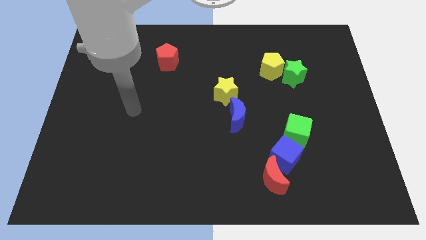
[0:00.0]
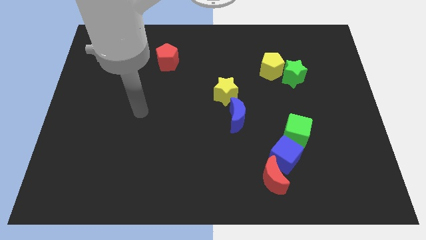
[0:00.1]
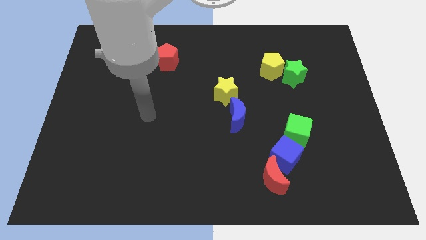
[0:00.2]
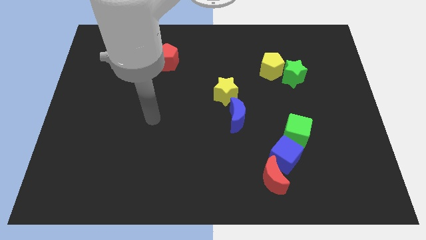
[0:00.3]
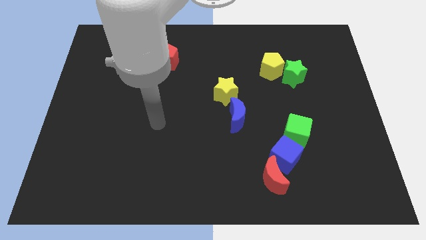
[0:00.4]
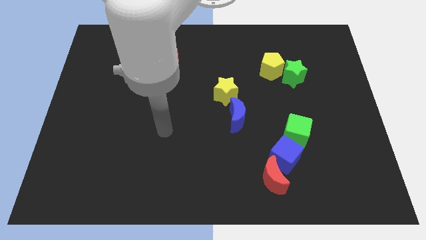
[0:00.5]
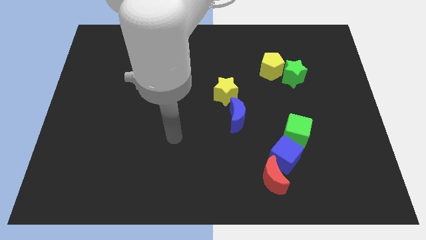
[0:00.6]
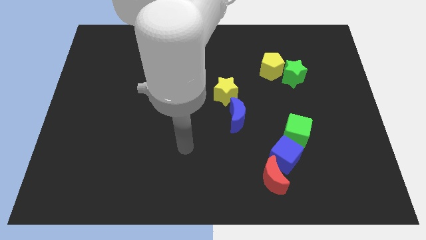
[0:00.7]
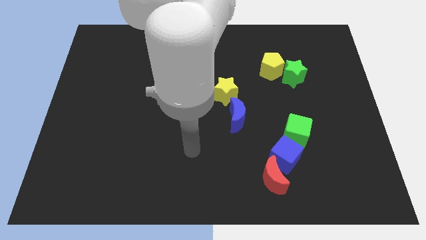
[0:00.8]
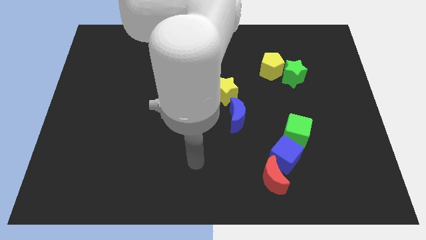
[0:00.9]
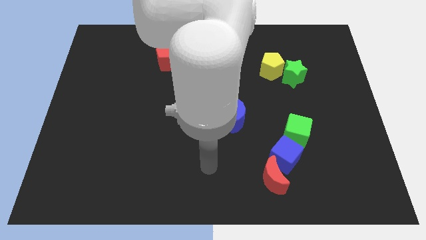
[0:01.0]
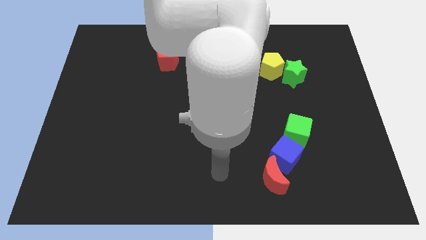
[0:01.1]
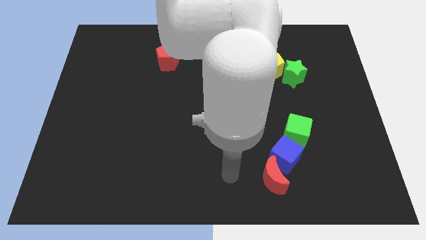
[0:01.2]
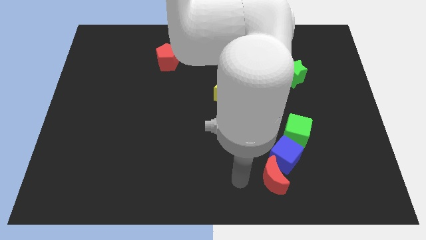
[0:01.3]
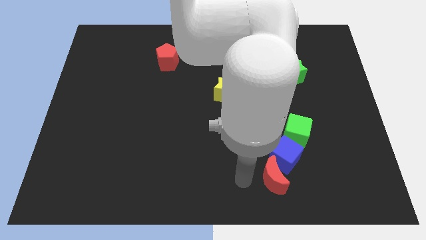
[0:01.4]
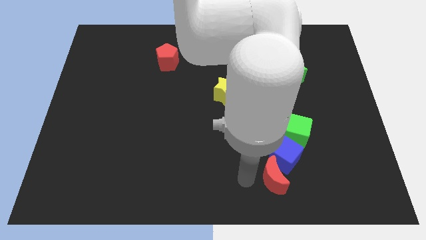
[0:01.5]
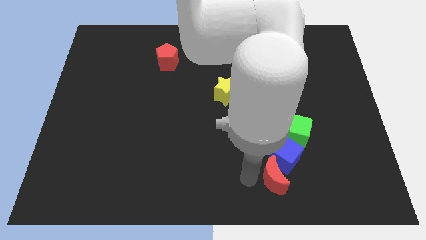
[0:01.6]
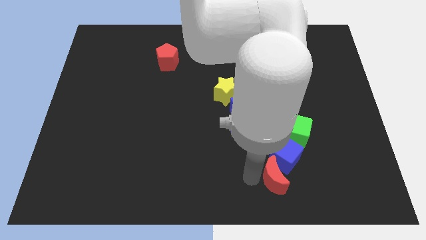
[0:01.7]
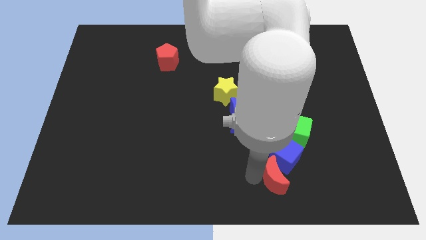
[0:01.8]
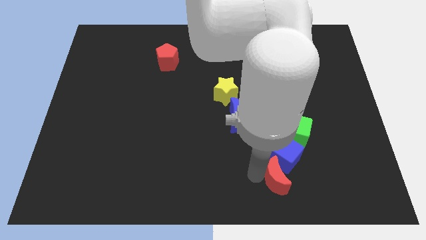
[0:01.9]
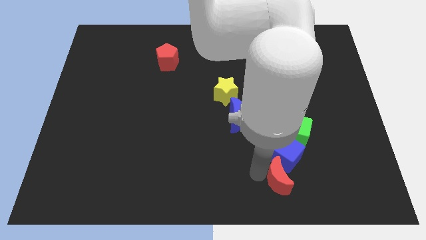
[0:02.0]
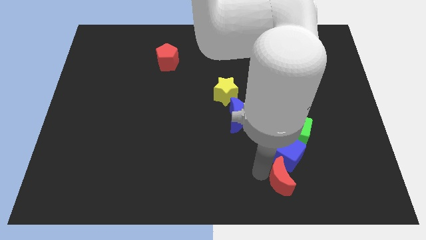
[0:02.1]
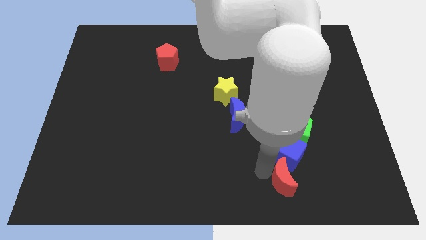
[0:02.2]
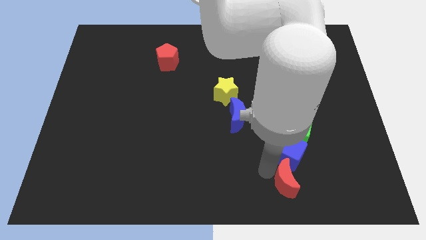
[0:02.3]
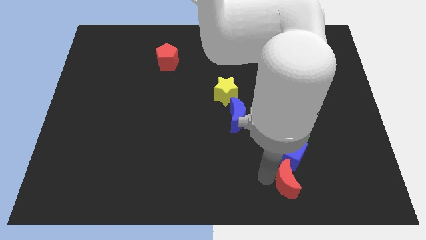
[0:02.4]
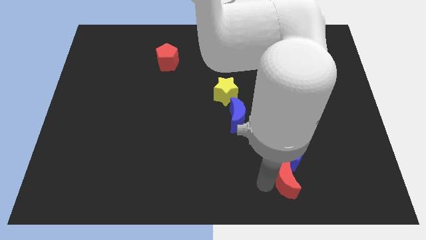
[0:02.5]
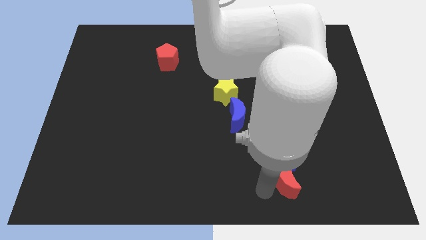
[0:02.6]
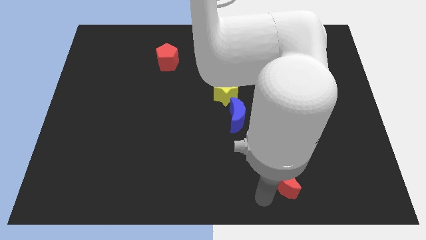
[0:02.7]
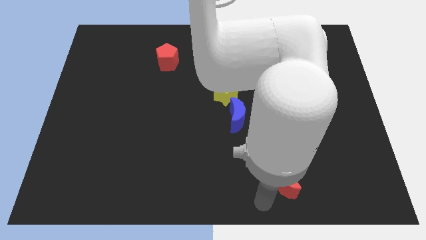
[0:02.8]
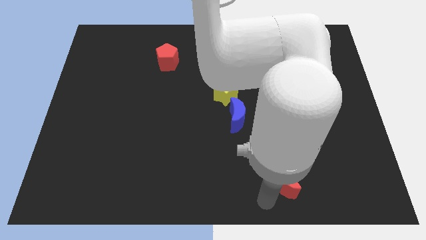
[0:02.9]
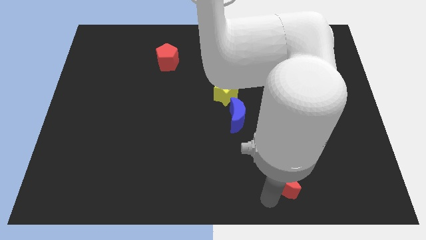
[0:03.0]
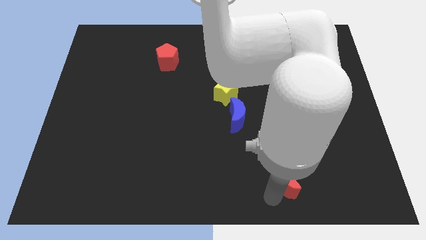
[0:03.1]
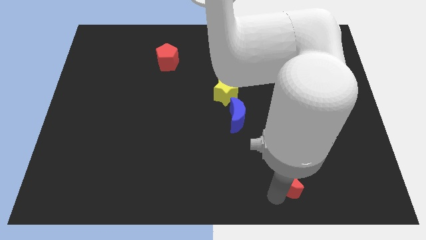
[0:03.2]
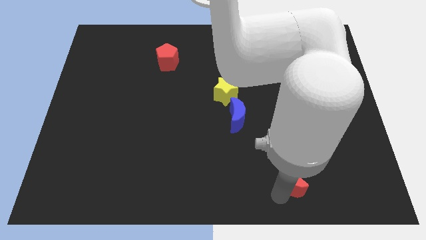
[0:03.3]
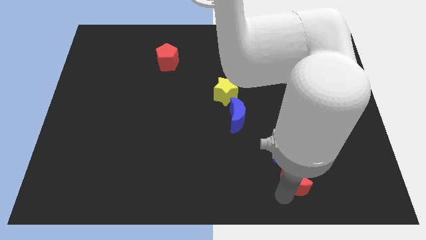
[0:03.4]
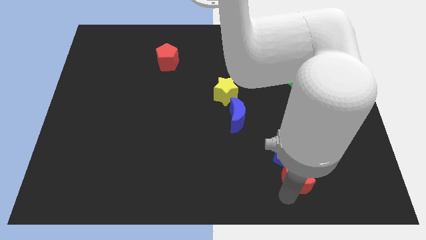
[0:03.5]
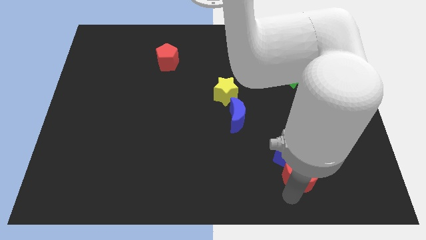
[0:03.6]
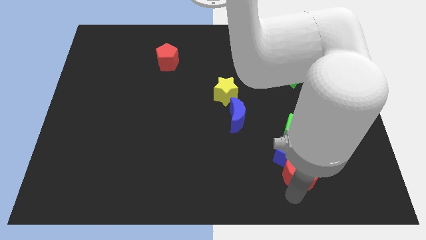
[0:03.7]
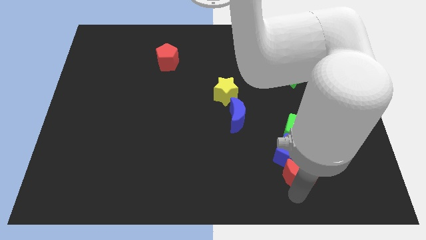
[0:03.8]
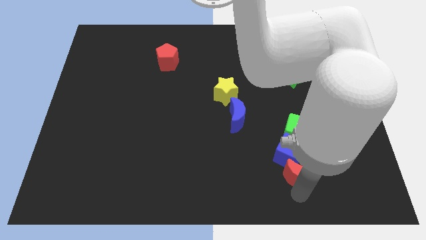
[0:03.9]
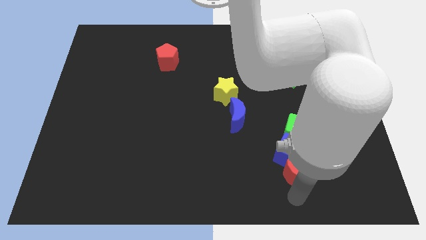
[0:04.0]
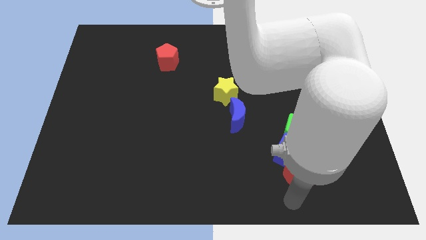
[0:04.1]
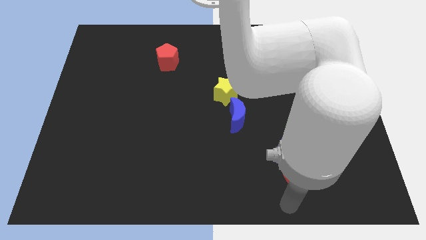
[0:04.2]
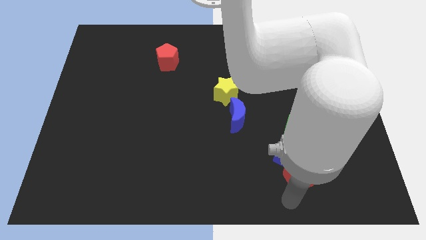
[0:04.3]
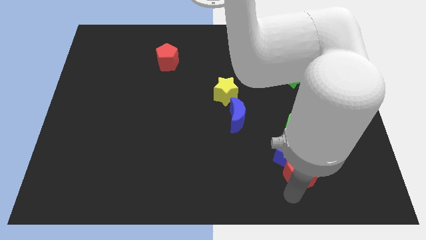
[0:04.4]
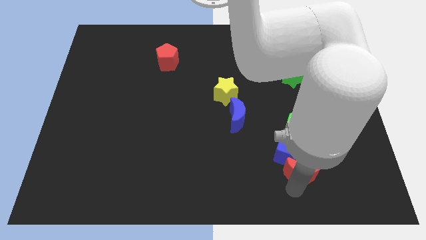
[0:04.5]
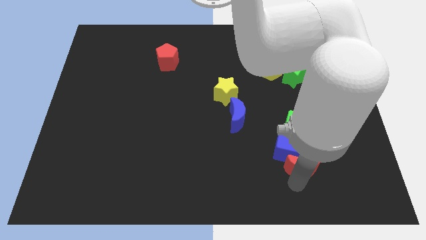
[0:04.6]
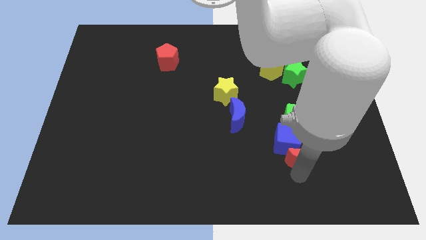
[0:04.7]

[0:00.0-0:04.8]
push the red moon a little bit upwards and to the right diagonally

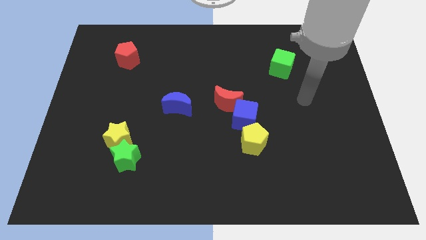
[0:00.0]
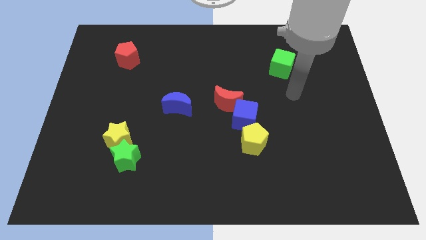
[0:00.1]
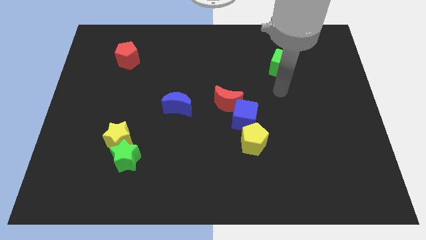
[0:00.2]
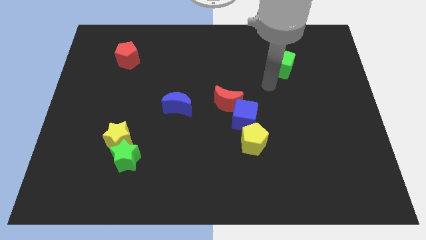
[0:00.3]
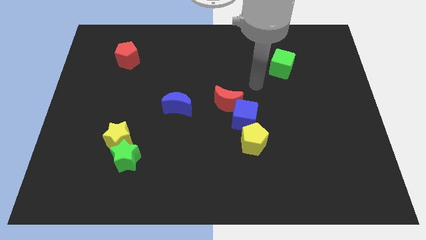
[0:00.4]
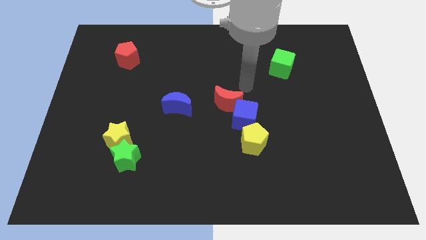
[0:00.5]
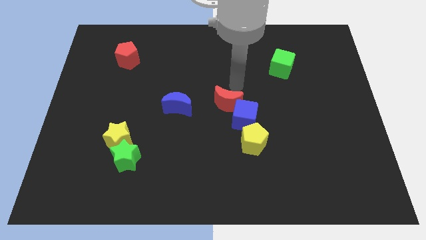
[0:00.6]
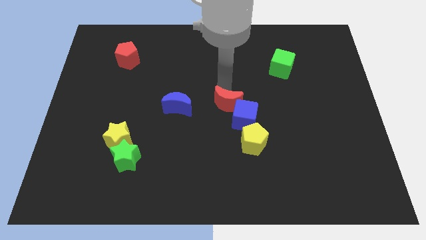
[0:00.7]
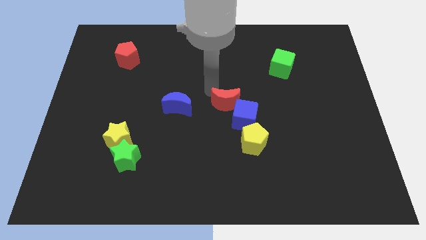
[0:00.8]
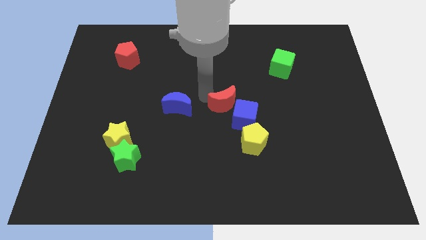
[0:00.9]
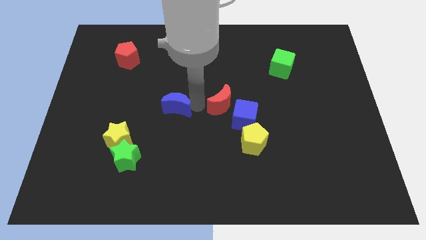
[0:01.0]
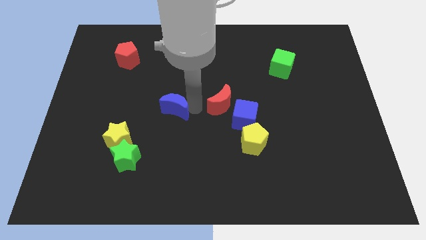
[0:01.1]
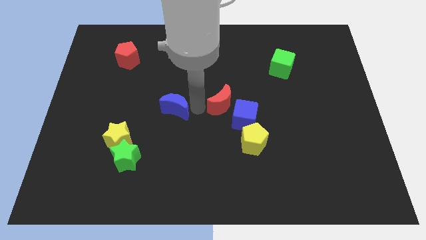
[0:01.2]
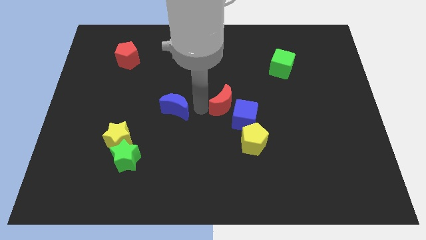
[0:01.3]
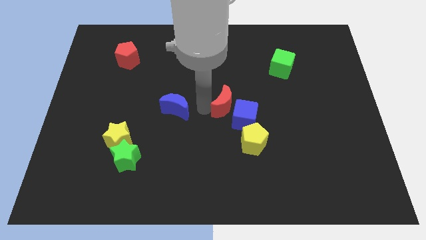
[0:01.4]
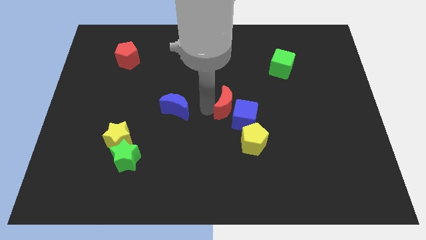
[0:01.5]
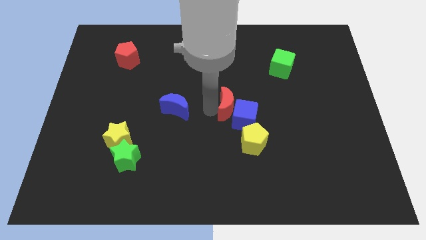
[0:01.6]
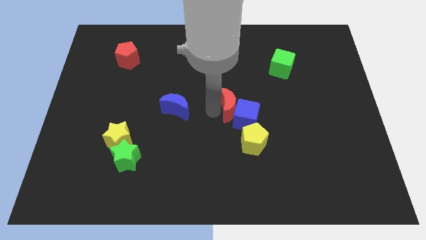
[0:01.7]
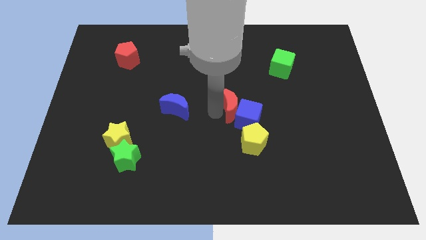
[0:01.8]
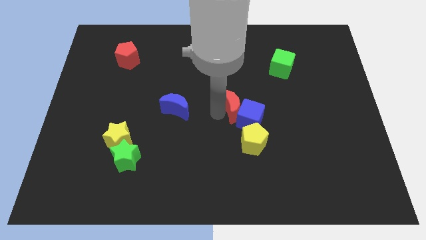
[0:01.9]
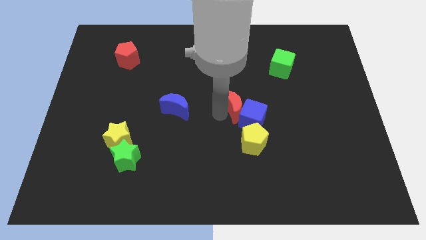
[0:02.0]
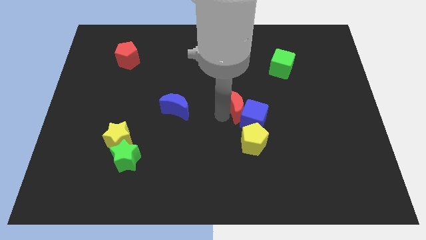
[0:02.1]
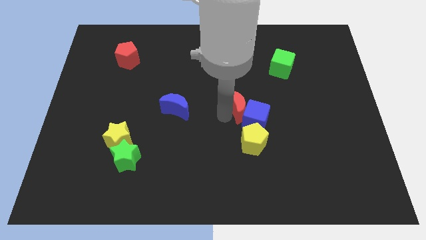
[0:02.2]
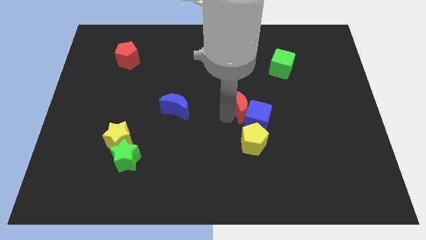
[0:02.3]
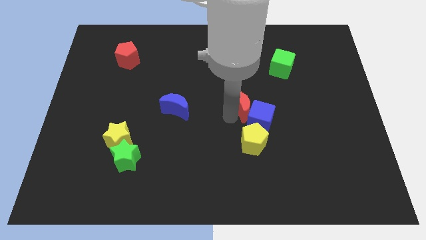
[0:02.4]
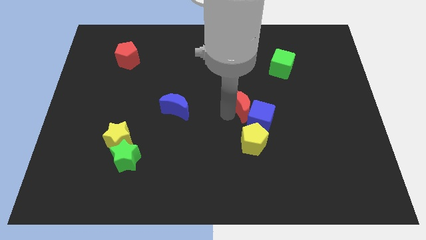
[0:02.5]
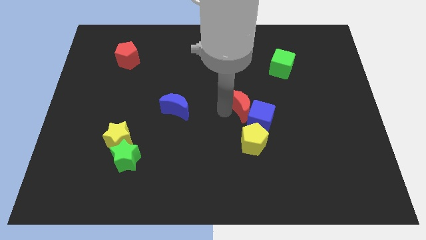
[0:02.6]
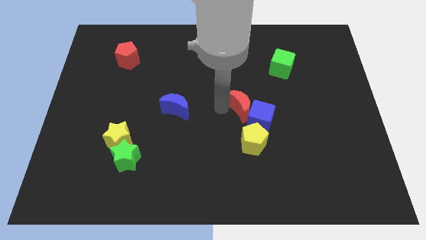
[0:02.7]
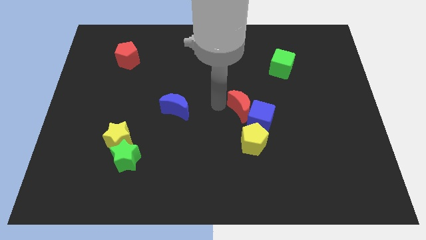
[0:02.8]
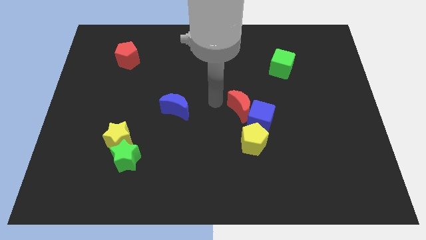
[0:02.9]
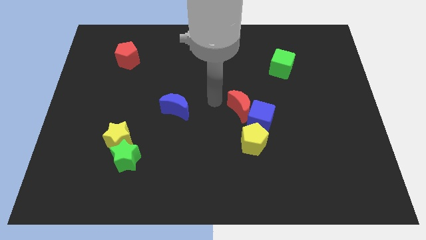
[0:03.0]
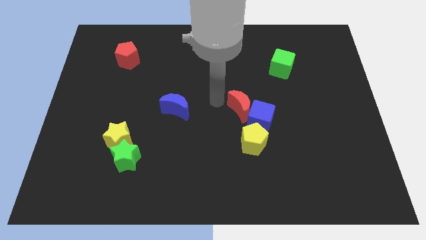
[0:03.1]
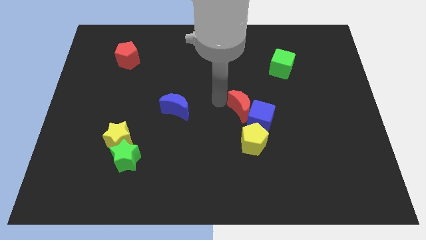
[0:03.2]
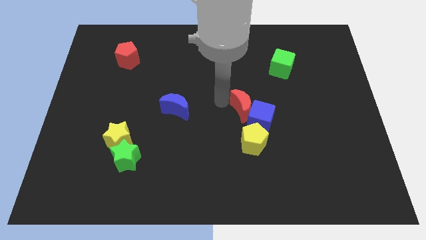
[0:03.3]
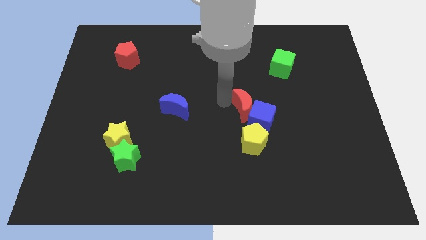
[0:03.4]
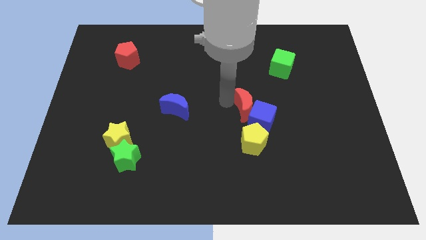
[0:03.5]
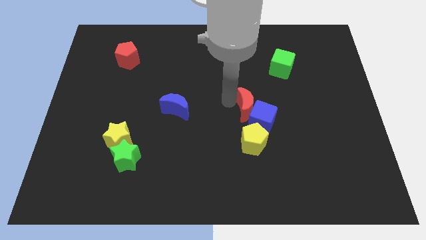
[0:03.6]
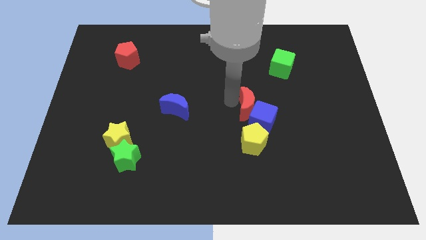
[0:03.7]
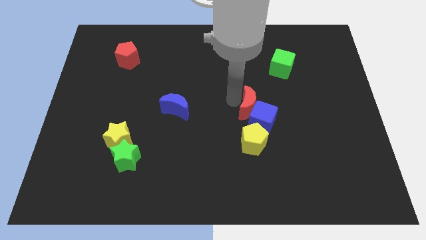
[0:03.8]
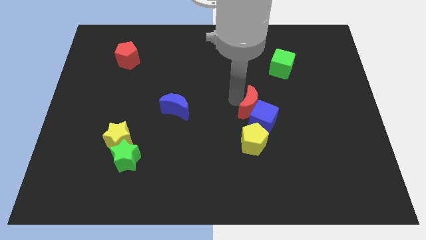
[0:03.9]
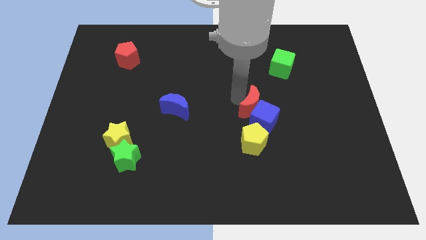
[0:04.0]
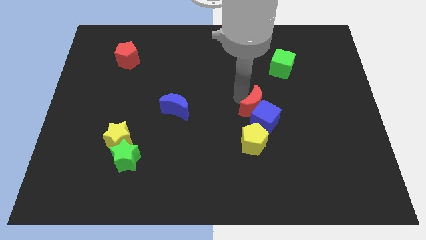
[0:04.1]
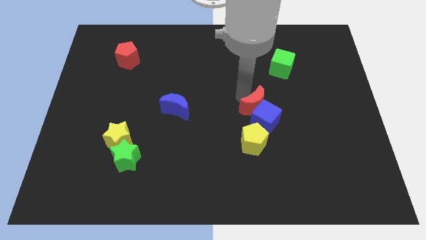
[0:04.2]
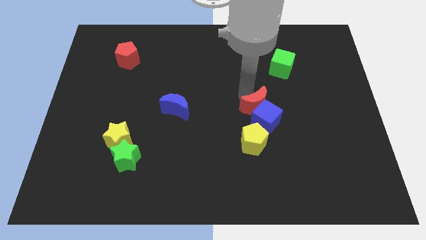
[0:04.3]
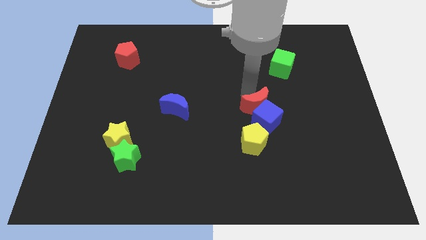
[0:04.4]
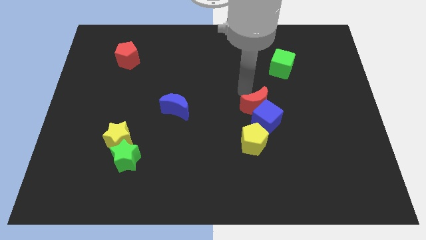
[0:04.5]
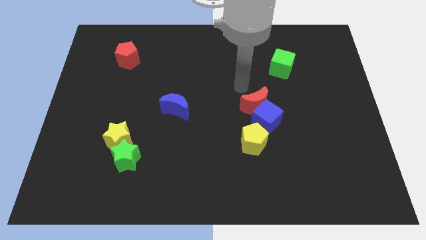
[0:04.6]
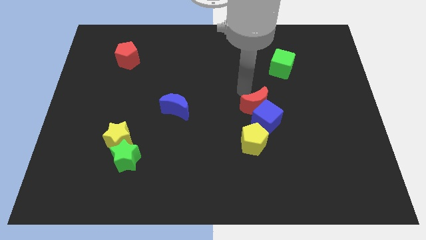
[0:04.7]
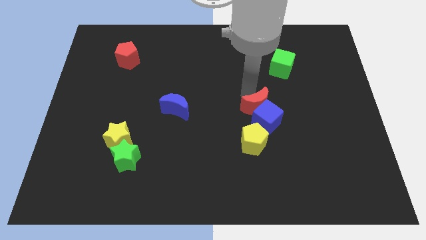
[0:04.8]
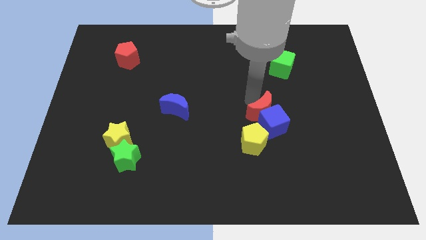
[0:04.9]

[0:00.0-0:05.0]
slightly slide the red moon downwards and to the right diagonally
